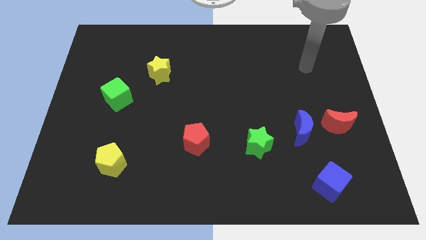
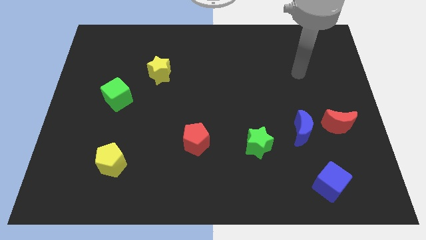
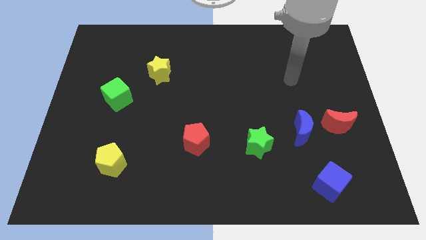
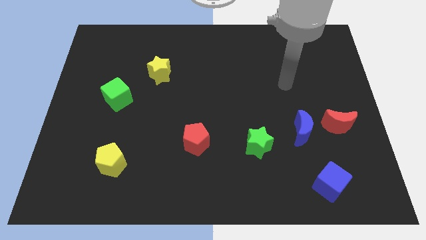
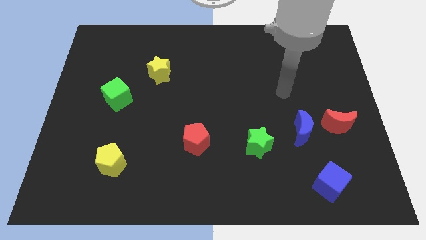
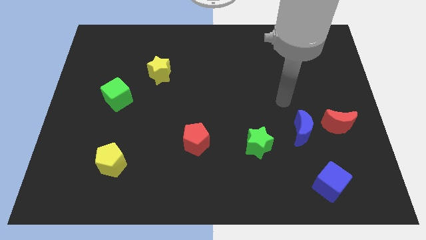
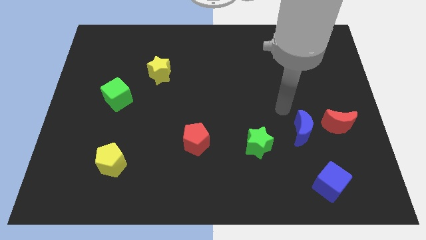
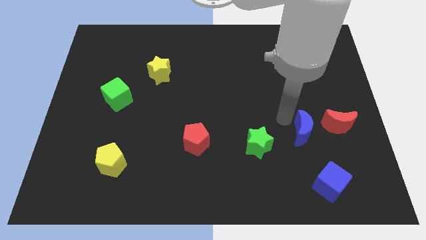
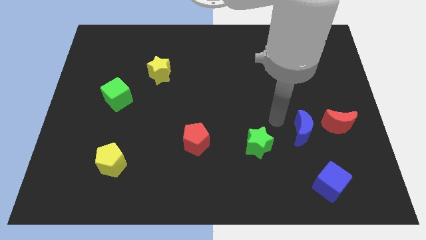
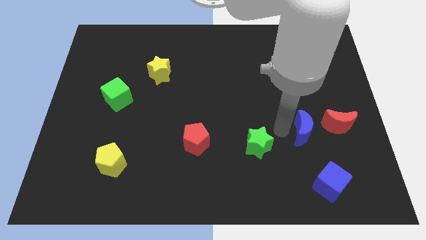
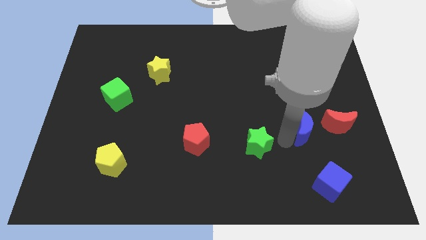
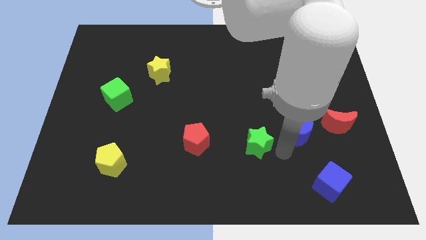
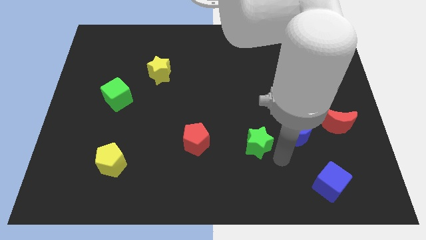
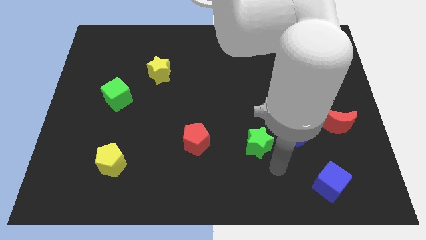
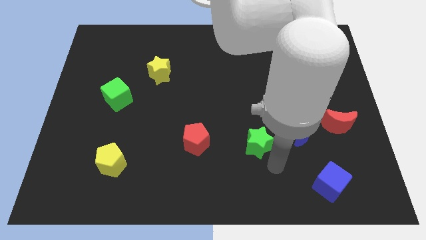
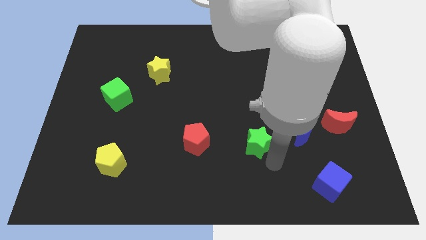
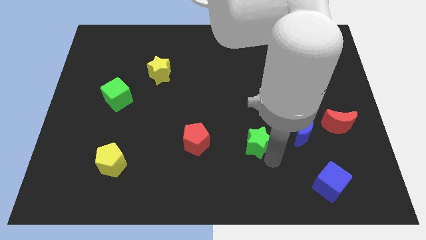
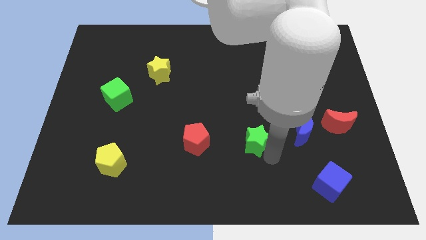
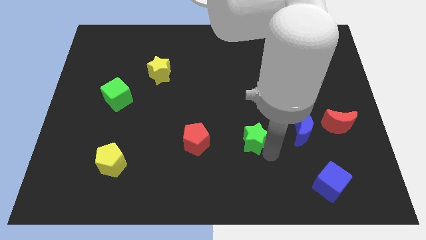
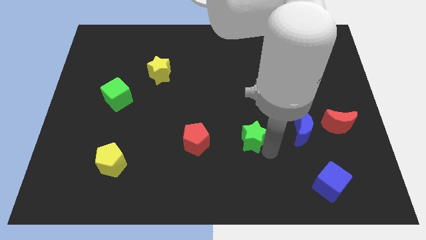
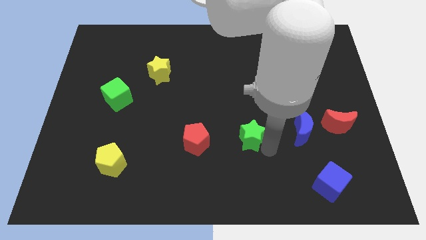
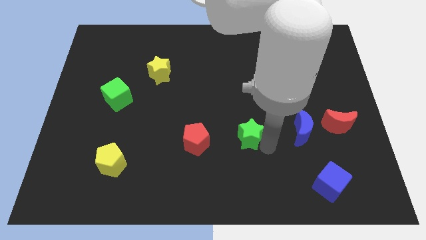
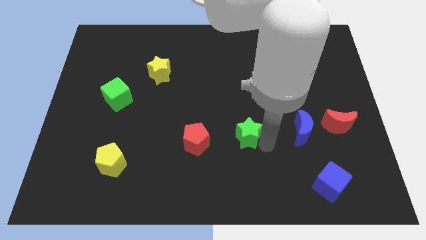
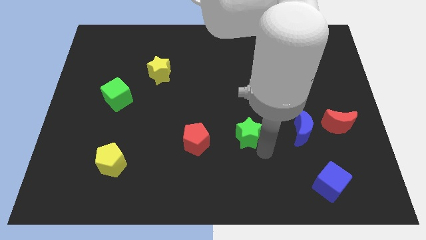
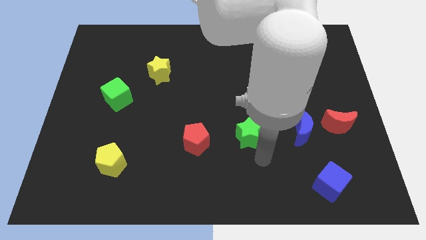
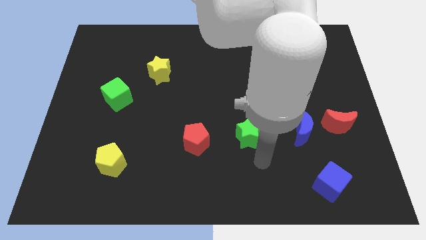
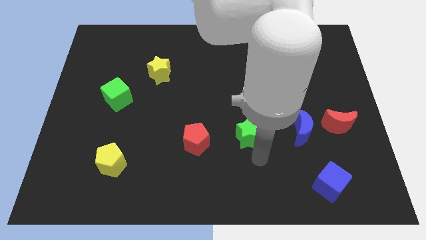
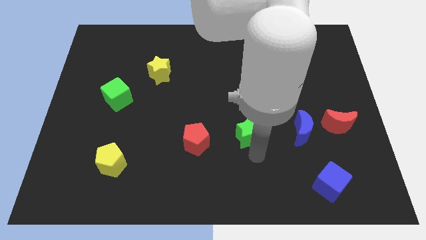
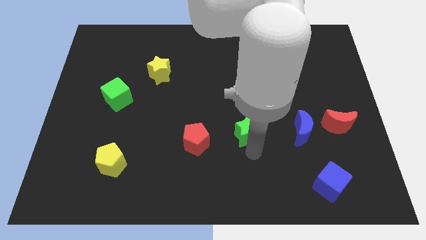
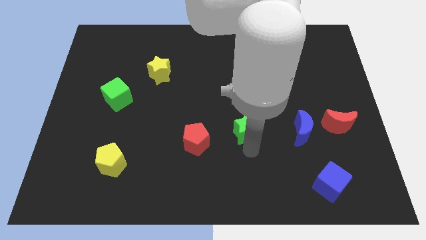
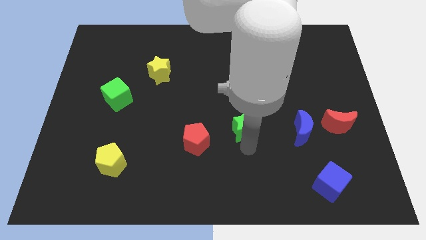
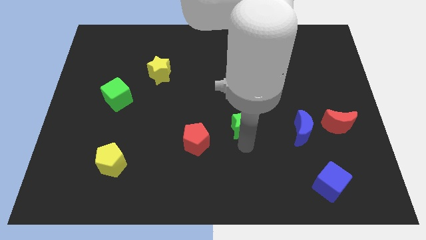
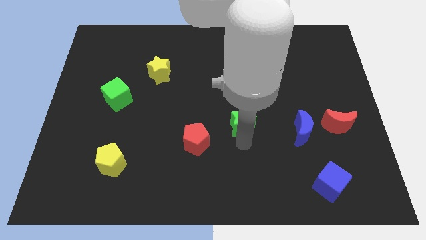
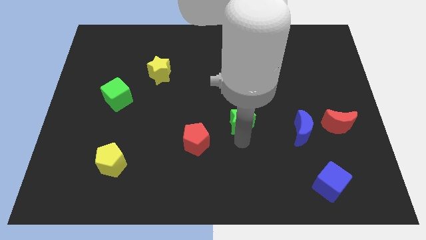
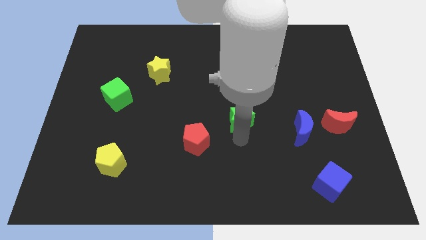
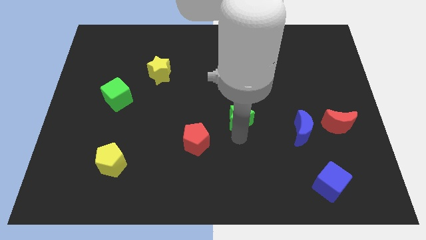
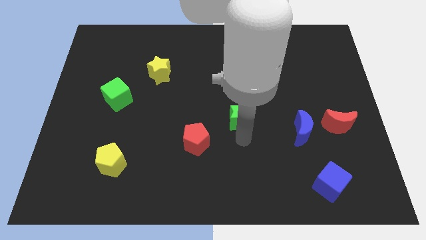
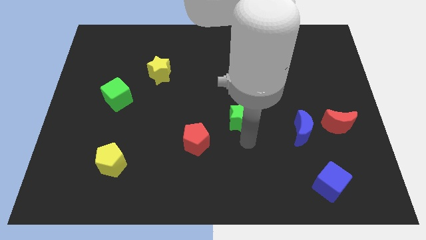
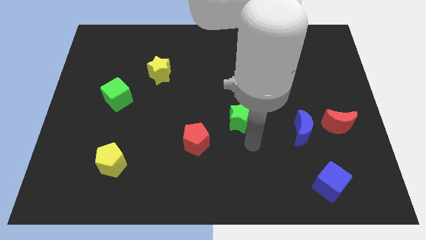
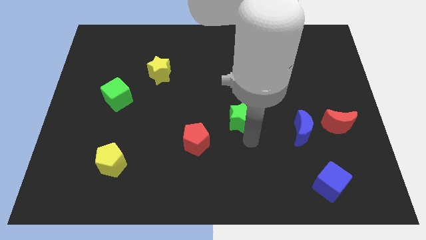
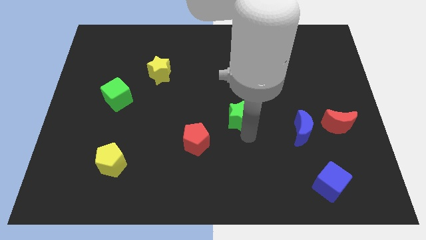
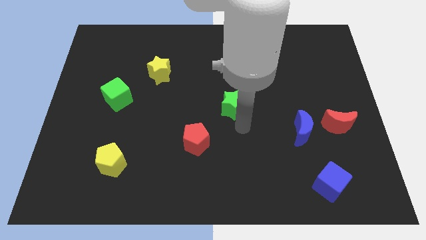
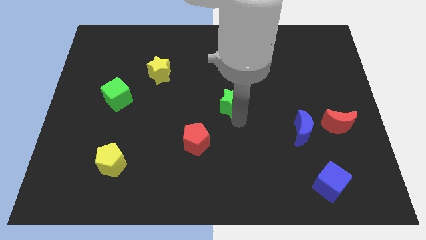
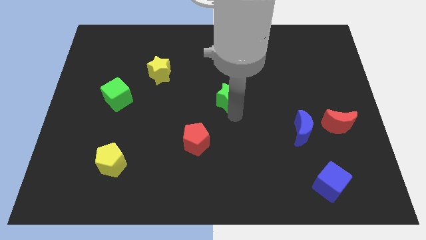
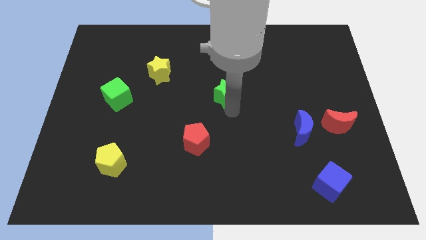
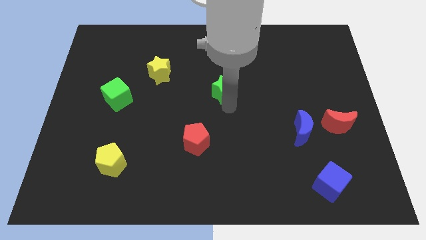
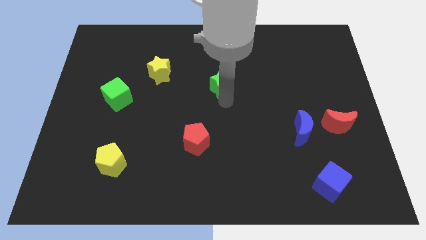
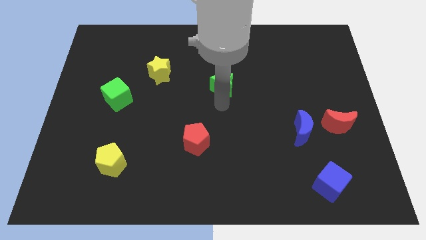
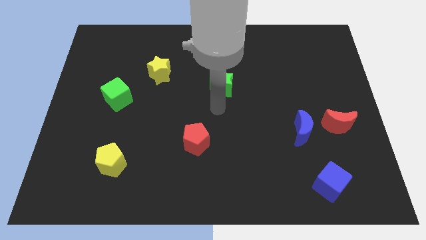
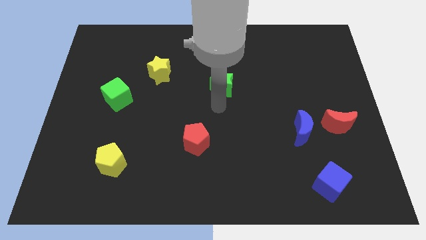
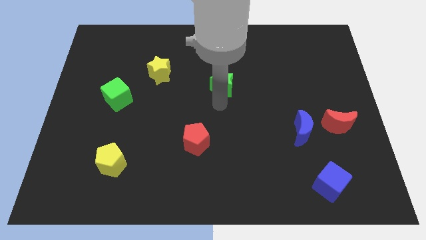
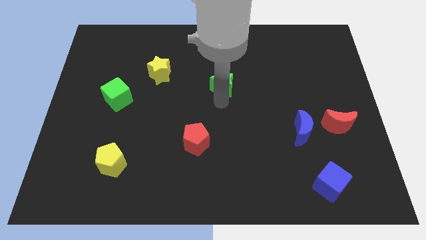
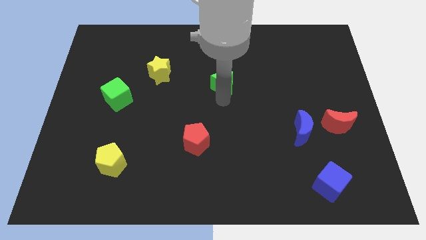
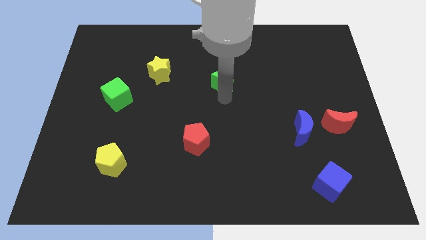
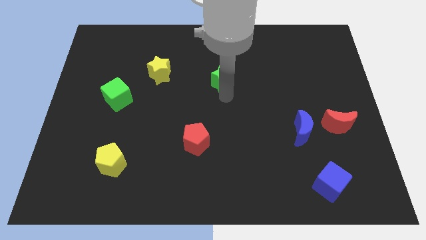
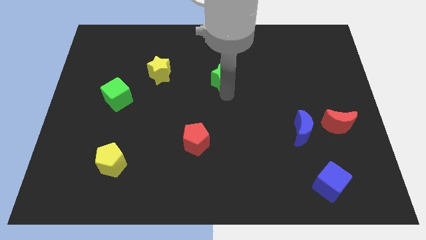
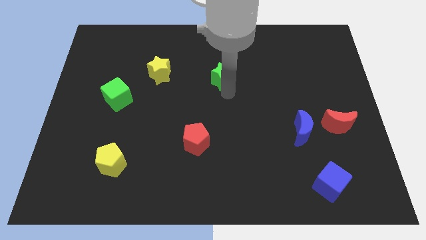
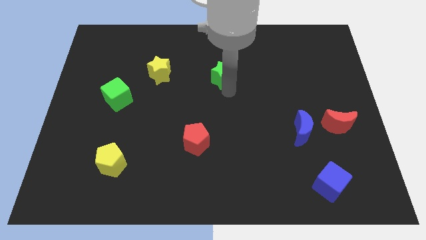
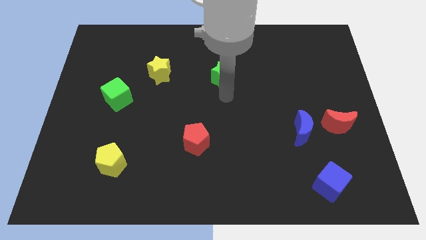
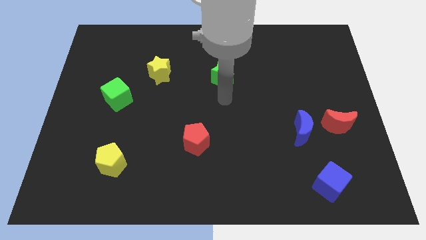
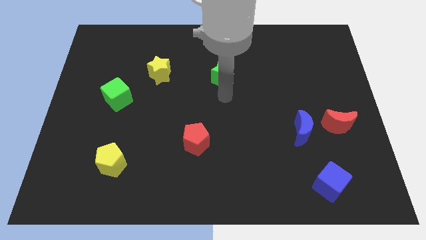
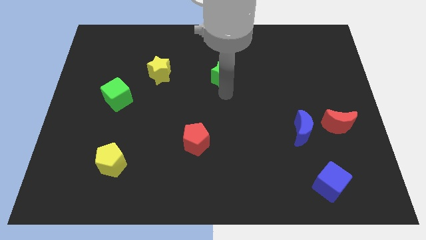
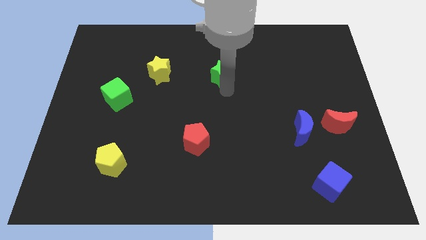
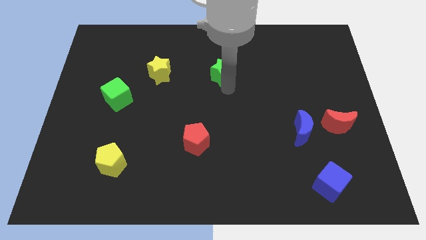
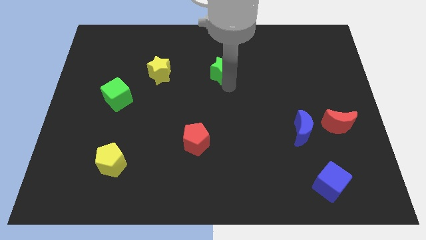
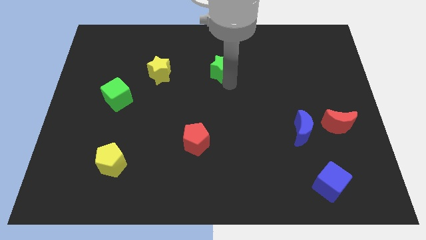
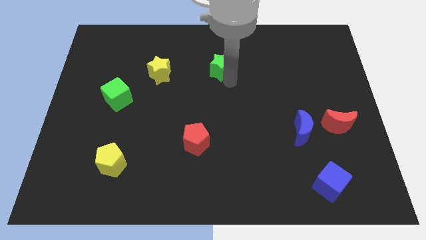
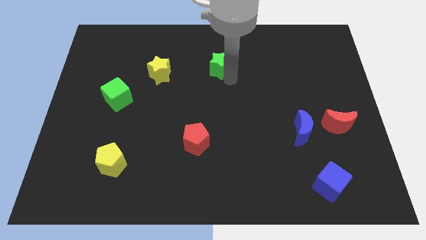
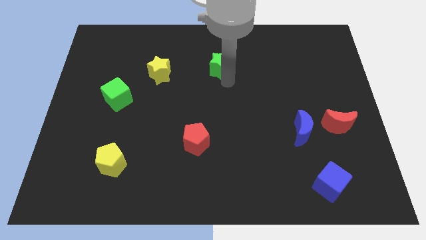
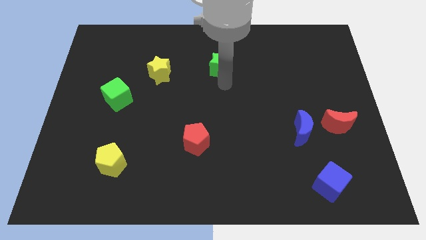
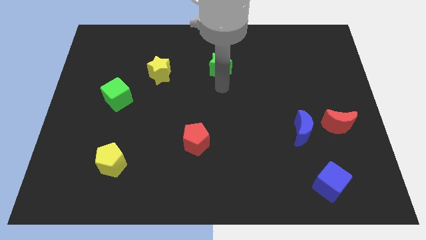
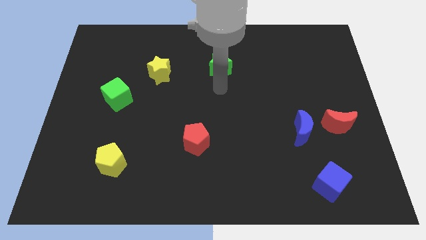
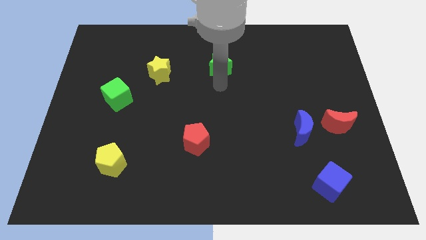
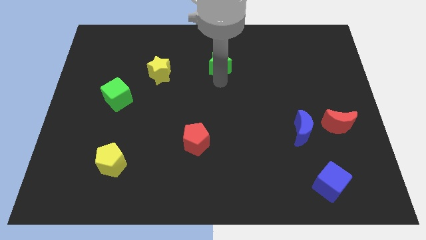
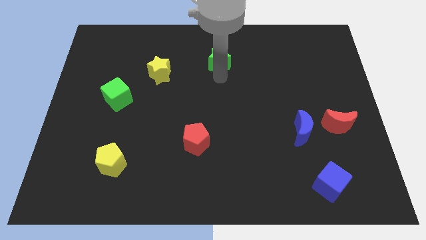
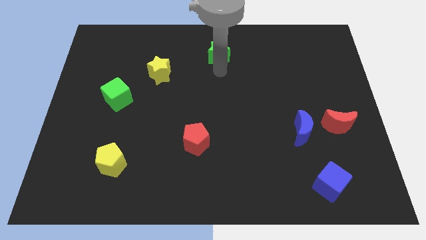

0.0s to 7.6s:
push the green star to the top side
